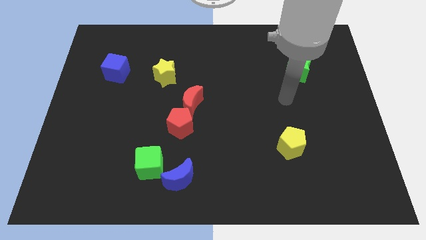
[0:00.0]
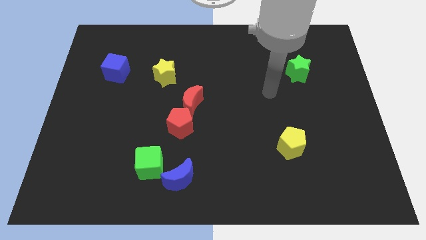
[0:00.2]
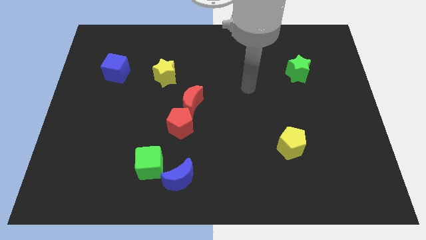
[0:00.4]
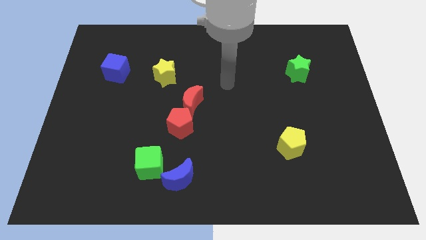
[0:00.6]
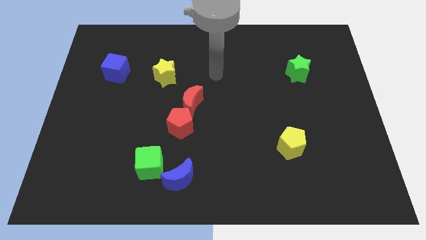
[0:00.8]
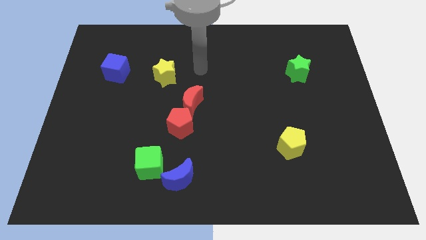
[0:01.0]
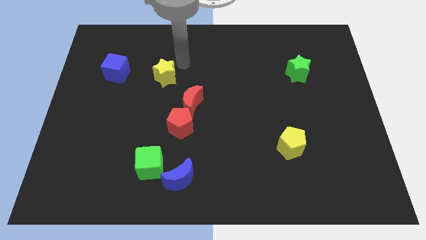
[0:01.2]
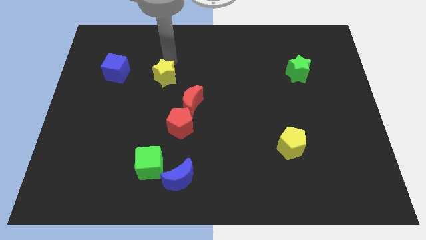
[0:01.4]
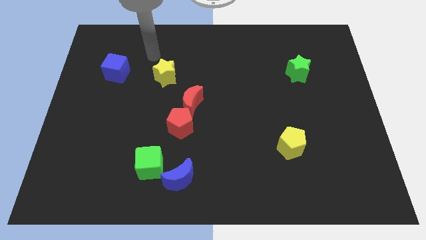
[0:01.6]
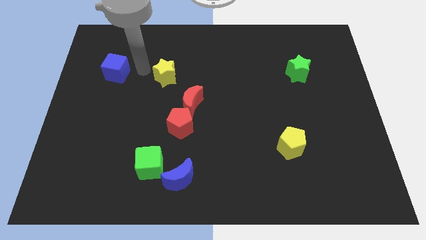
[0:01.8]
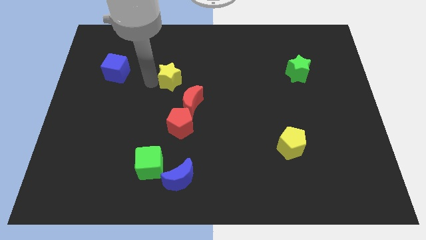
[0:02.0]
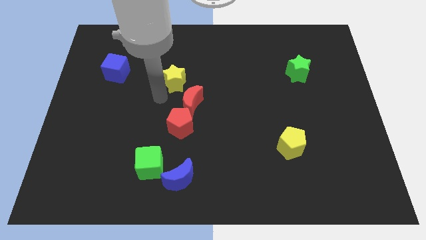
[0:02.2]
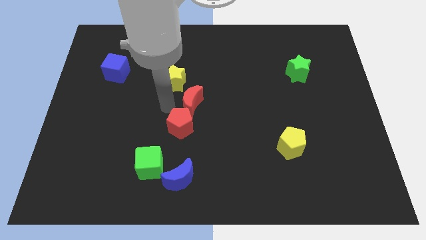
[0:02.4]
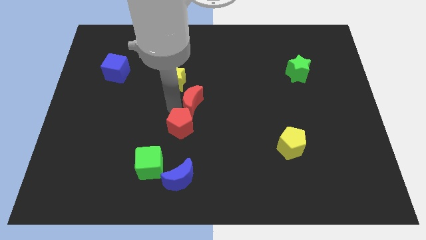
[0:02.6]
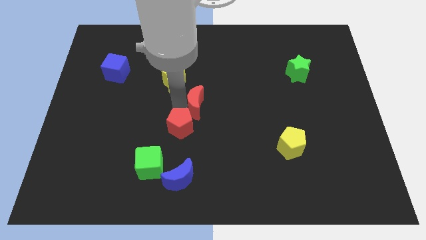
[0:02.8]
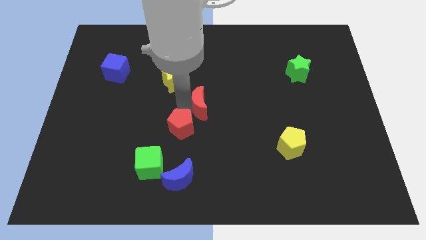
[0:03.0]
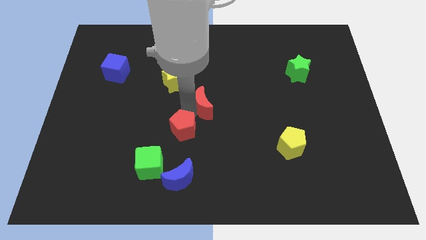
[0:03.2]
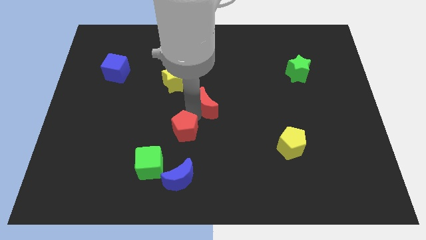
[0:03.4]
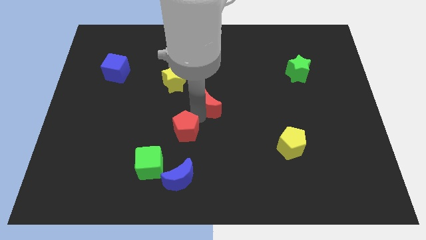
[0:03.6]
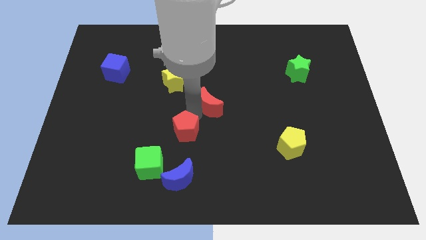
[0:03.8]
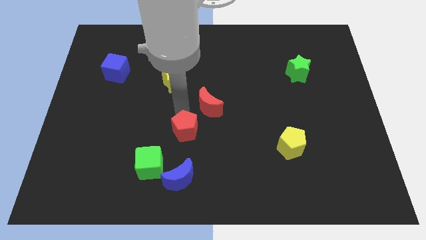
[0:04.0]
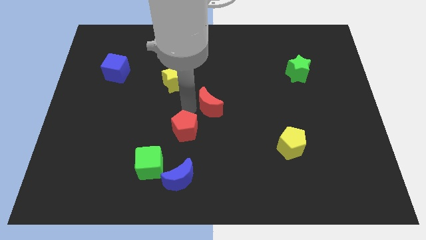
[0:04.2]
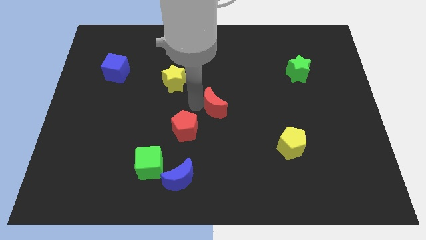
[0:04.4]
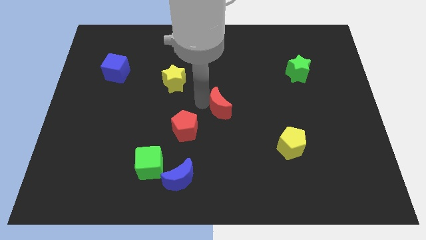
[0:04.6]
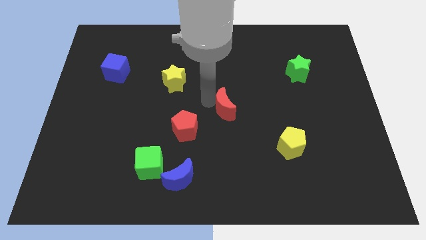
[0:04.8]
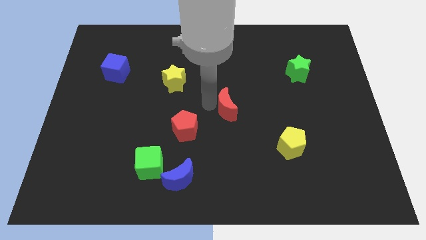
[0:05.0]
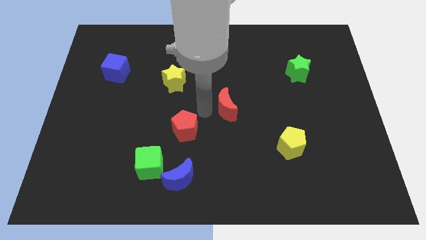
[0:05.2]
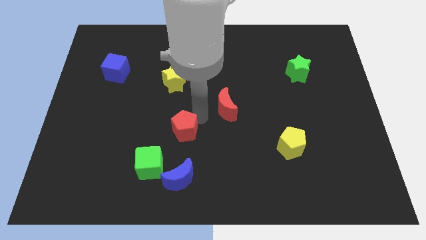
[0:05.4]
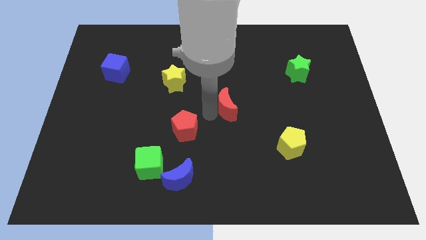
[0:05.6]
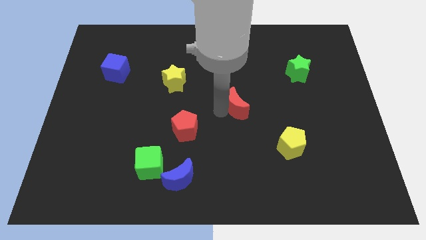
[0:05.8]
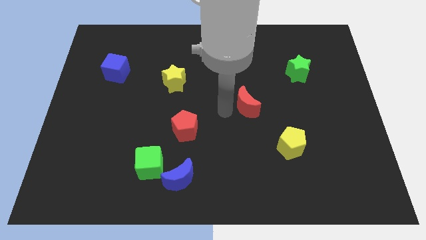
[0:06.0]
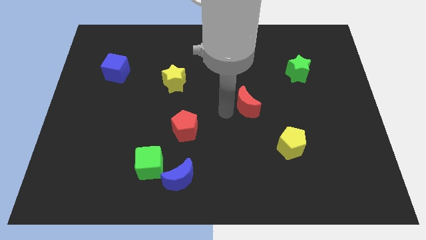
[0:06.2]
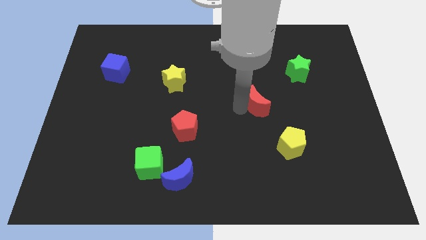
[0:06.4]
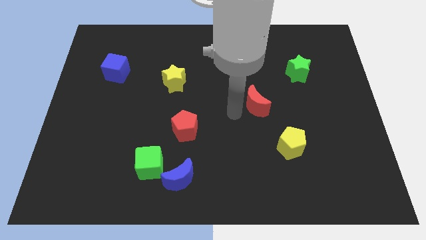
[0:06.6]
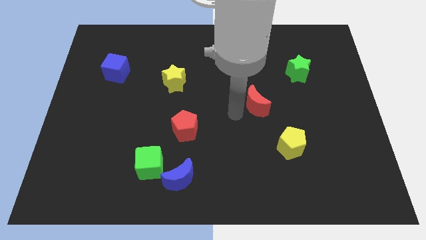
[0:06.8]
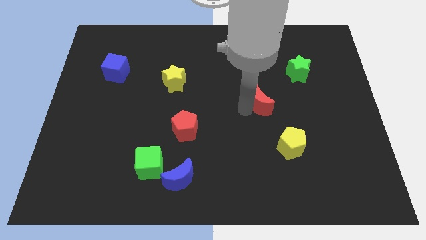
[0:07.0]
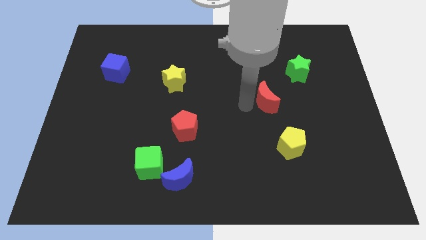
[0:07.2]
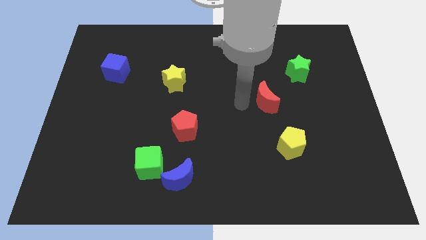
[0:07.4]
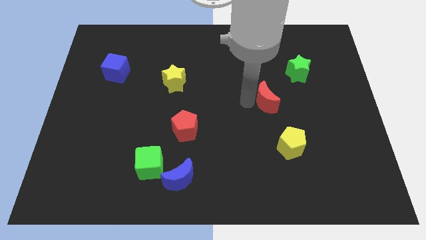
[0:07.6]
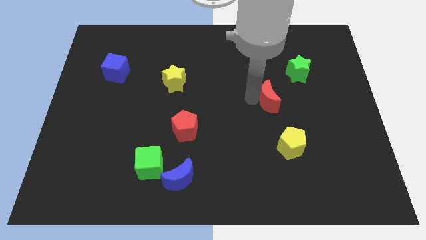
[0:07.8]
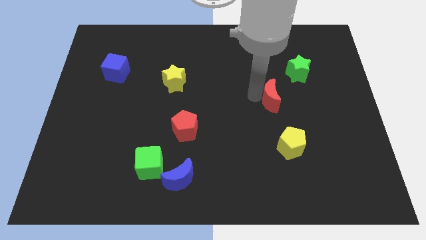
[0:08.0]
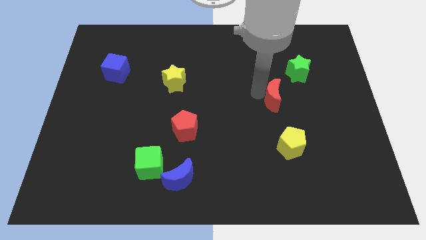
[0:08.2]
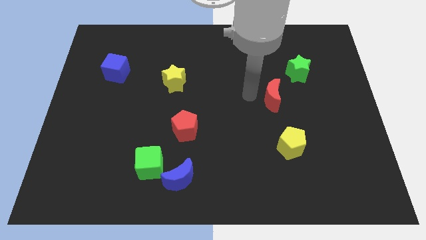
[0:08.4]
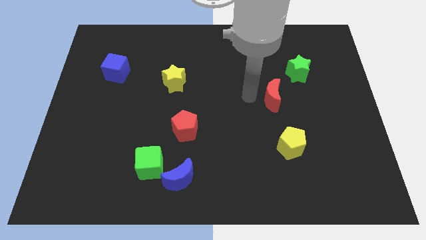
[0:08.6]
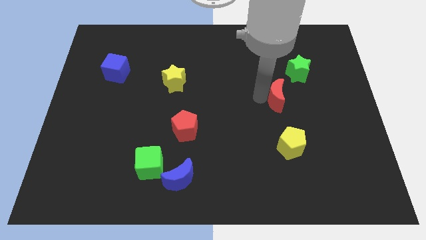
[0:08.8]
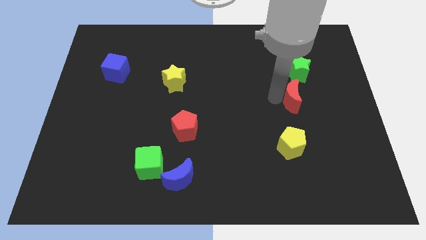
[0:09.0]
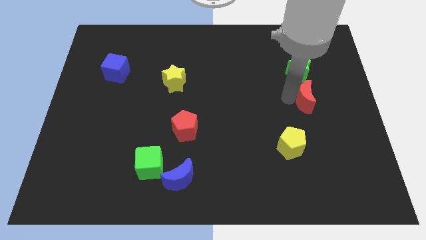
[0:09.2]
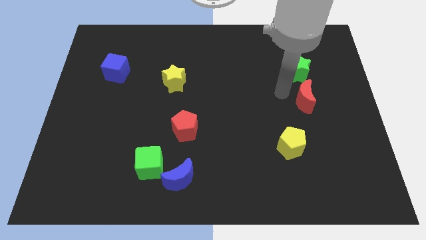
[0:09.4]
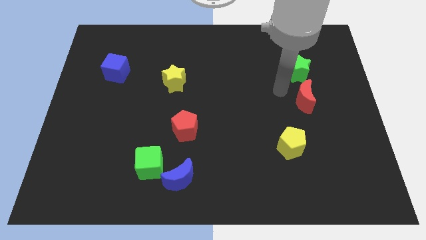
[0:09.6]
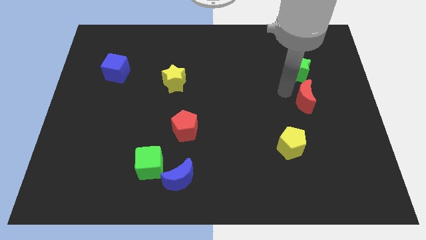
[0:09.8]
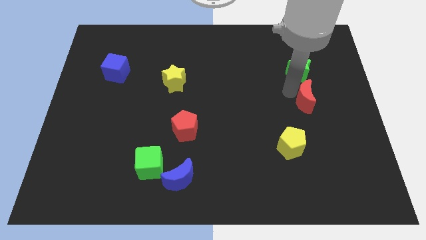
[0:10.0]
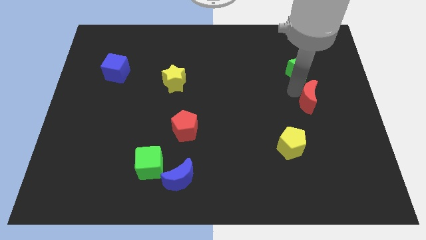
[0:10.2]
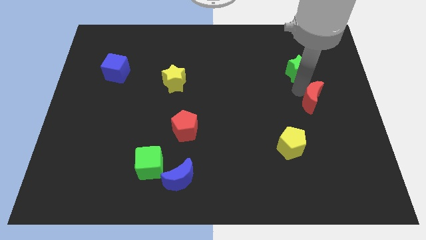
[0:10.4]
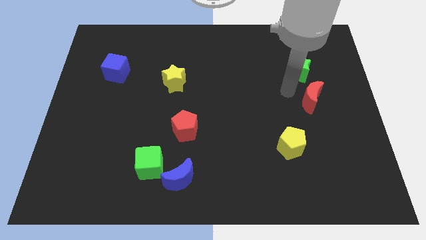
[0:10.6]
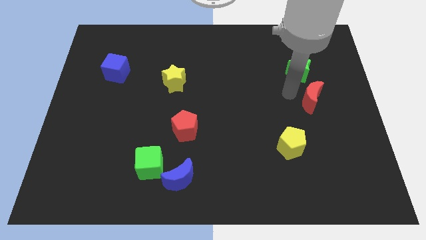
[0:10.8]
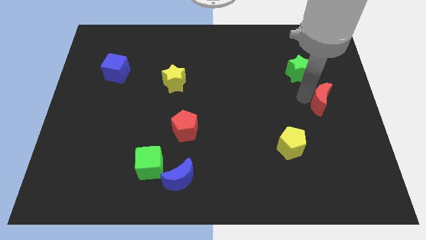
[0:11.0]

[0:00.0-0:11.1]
move the red moon to the center right

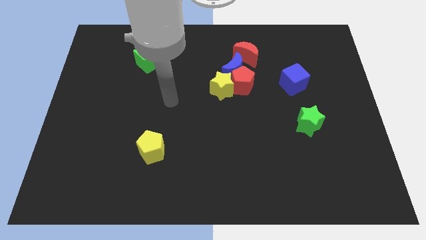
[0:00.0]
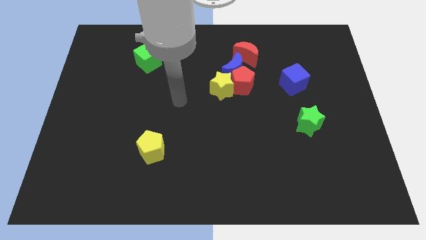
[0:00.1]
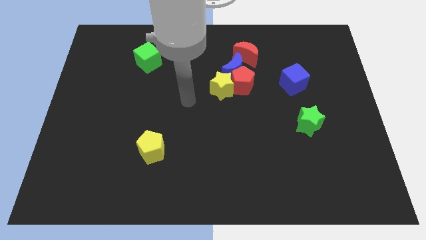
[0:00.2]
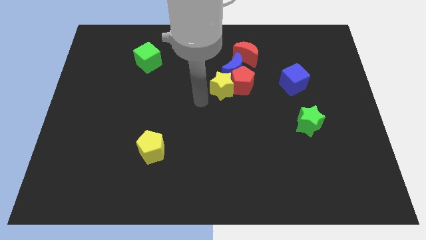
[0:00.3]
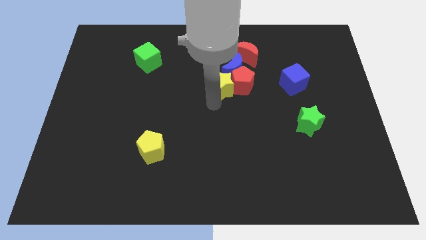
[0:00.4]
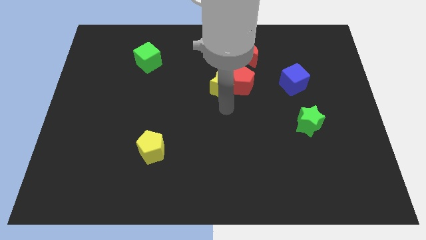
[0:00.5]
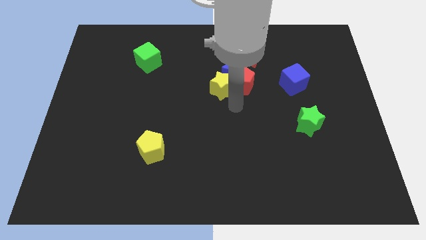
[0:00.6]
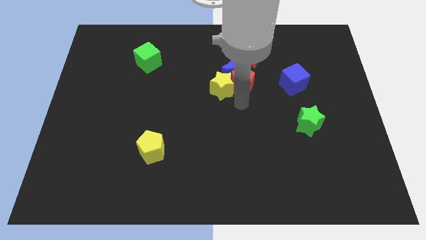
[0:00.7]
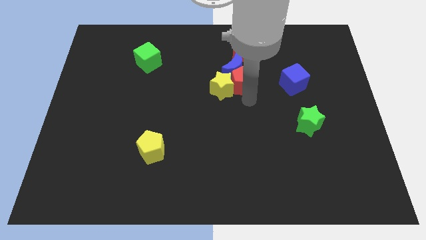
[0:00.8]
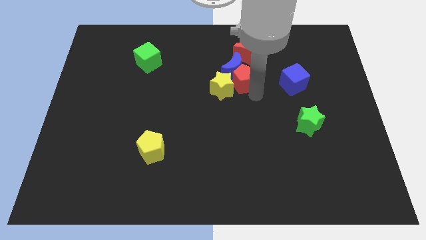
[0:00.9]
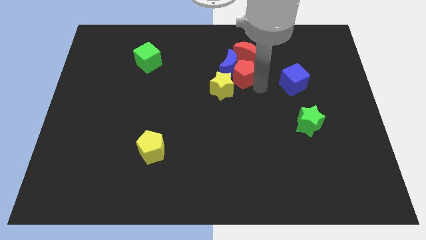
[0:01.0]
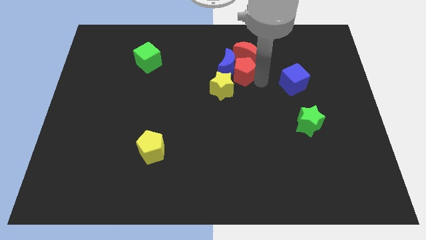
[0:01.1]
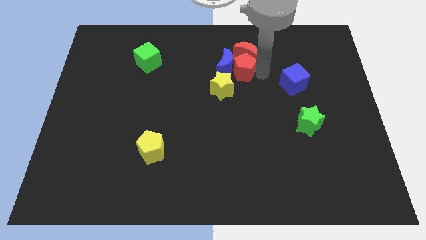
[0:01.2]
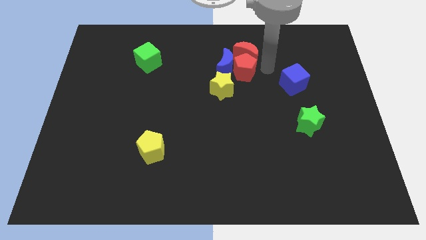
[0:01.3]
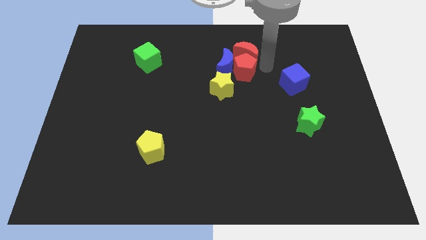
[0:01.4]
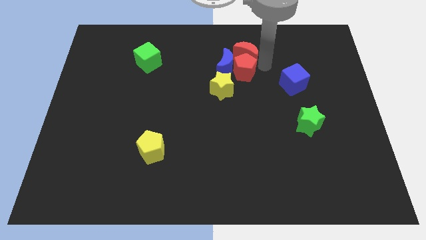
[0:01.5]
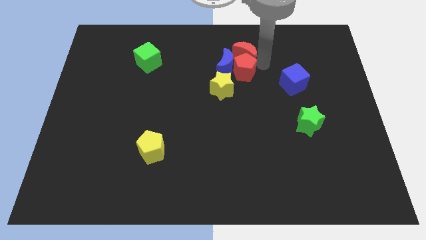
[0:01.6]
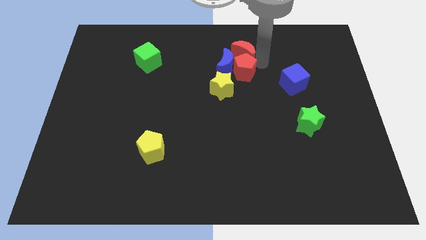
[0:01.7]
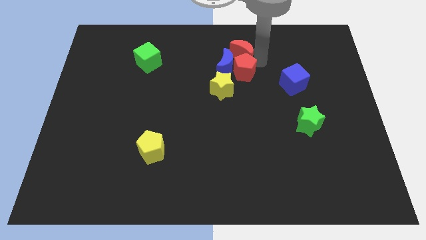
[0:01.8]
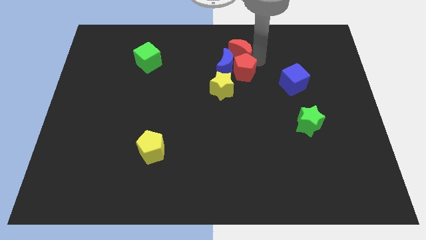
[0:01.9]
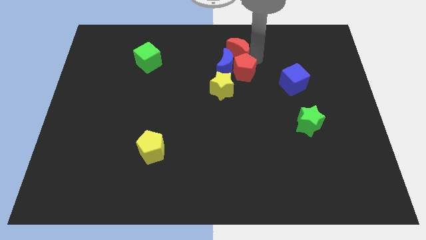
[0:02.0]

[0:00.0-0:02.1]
slide the red moon to the towards your base
